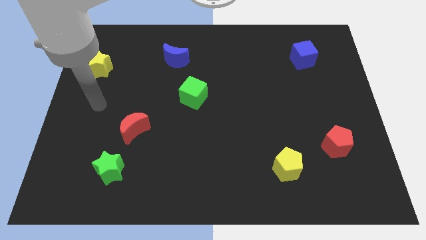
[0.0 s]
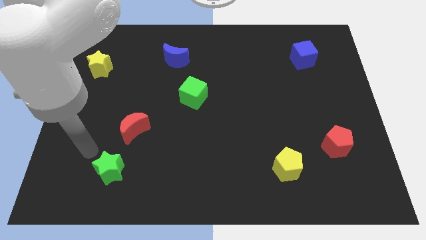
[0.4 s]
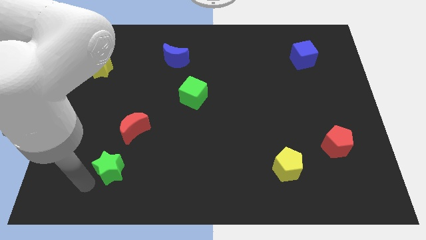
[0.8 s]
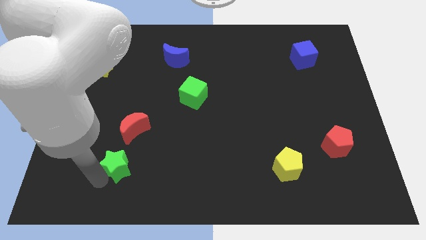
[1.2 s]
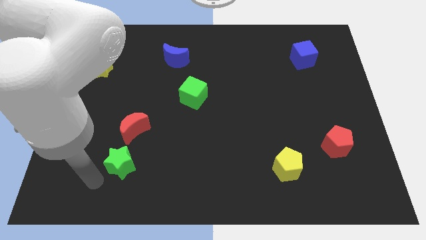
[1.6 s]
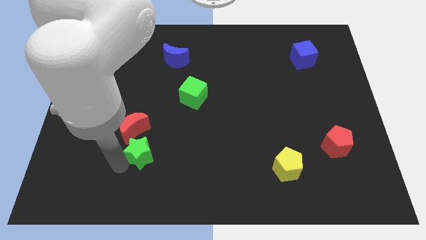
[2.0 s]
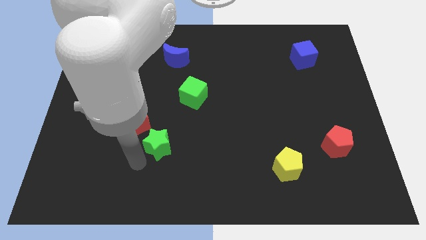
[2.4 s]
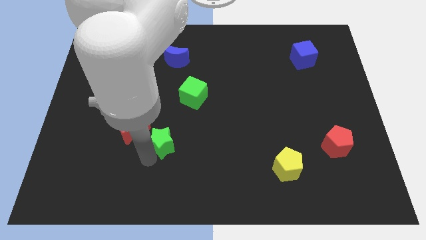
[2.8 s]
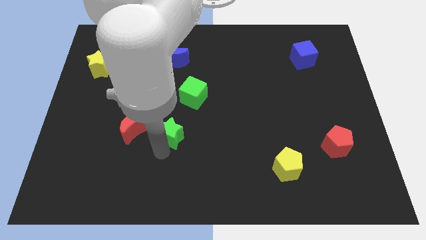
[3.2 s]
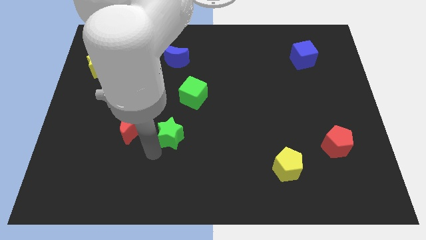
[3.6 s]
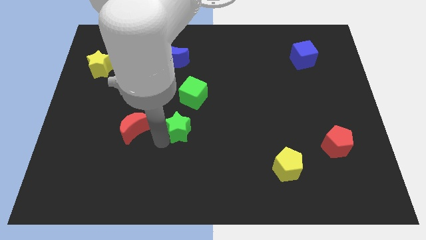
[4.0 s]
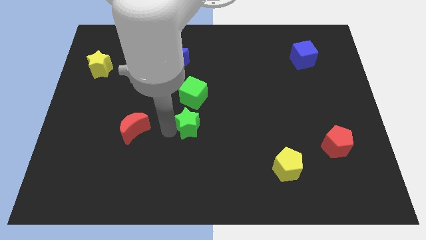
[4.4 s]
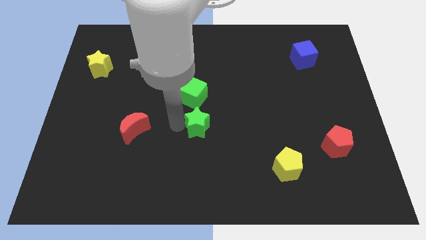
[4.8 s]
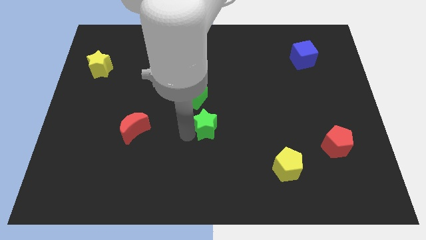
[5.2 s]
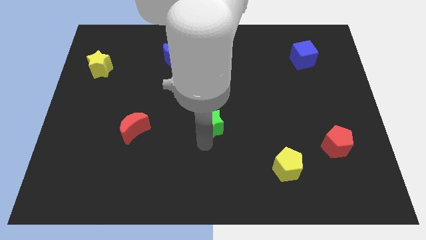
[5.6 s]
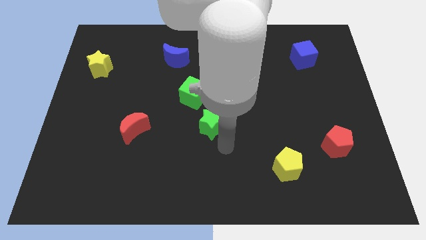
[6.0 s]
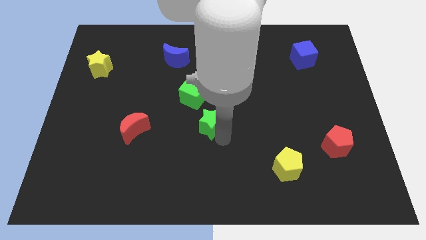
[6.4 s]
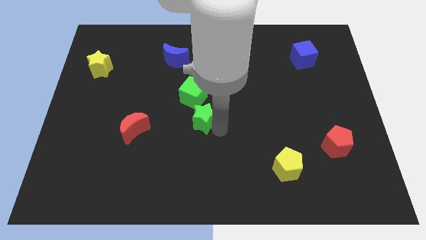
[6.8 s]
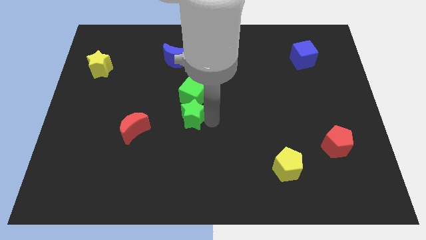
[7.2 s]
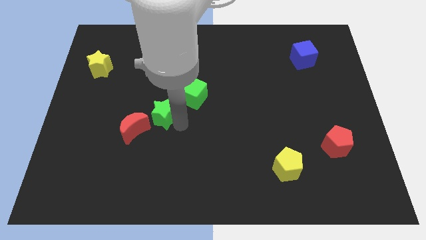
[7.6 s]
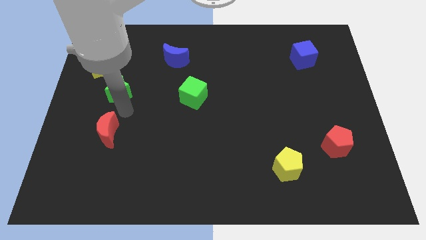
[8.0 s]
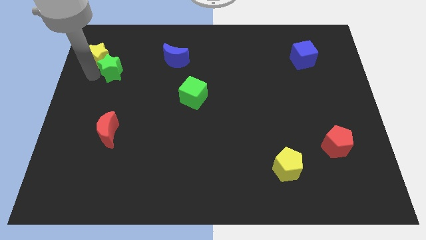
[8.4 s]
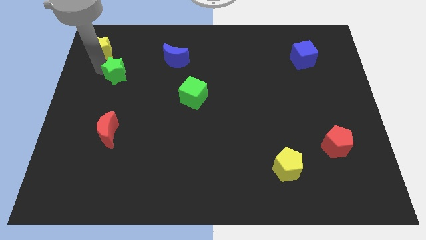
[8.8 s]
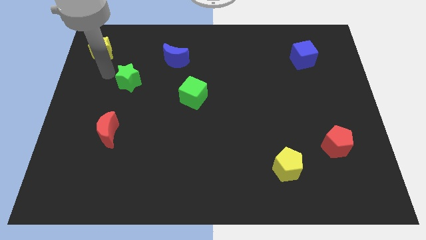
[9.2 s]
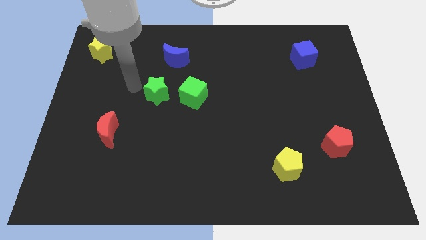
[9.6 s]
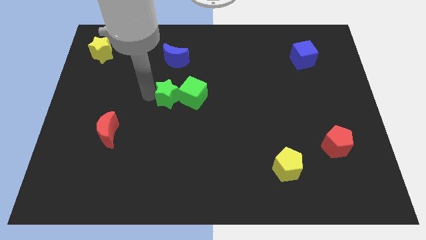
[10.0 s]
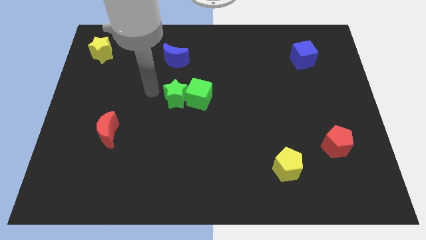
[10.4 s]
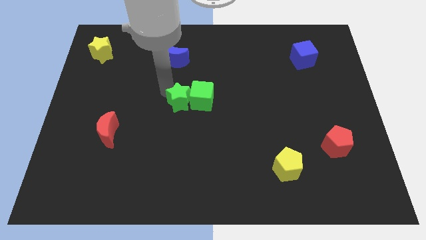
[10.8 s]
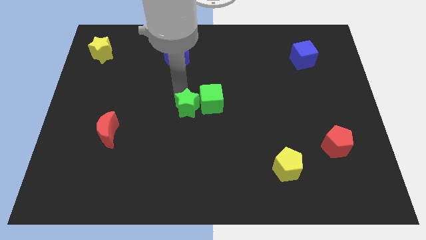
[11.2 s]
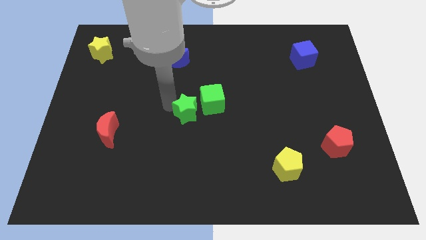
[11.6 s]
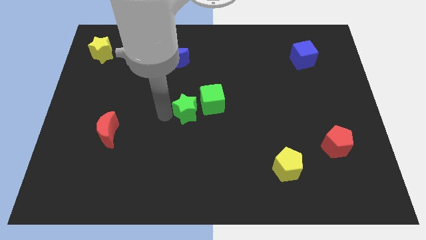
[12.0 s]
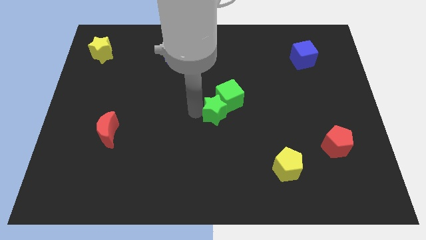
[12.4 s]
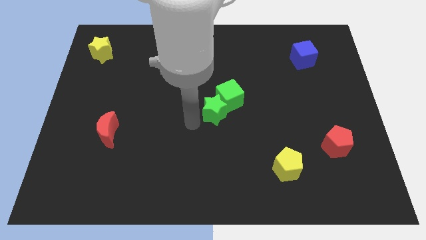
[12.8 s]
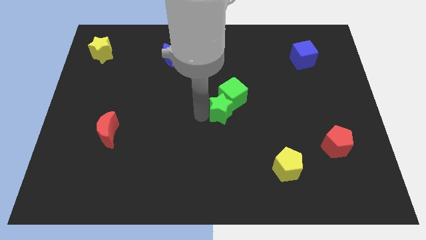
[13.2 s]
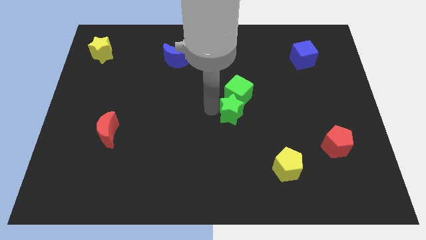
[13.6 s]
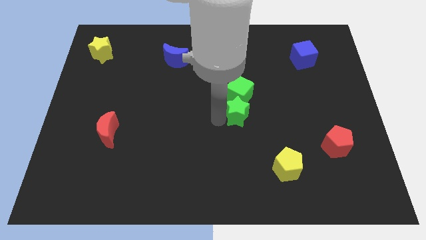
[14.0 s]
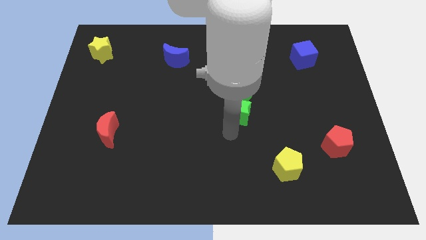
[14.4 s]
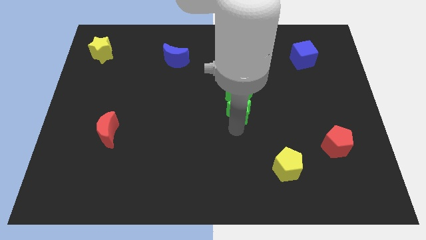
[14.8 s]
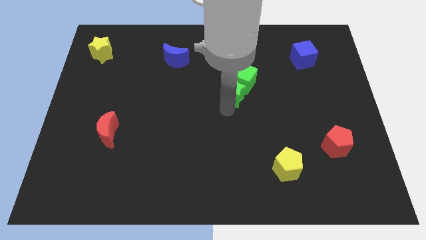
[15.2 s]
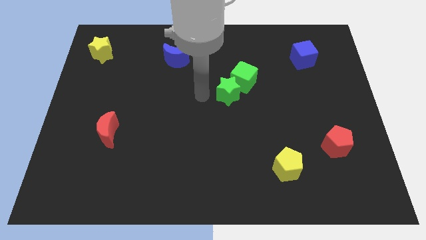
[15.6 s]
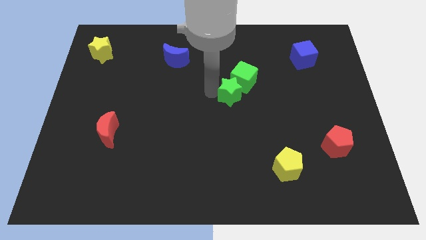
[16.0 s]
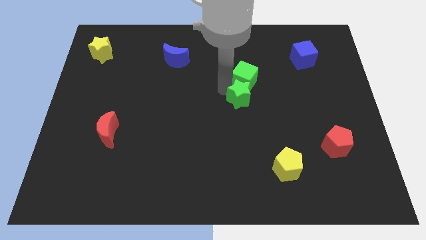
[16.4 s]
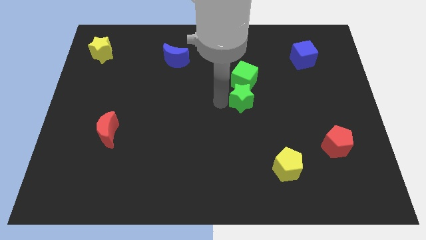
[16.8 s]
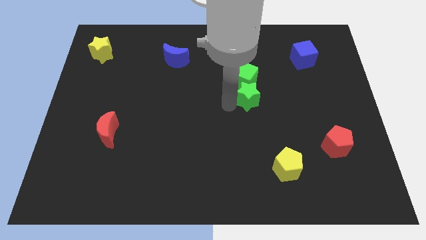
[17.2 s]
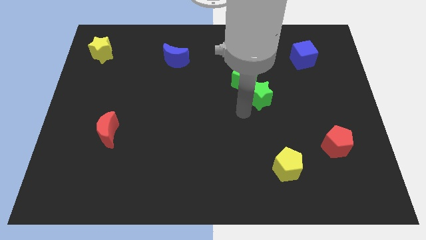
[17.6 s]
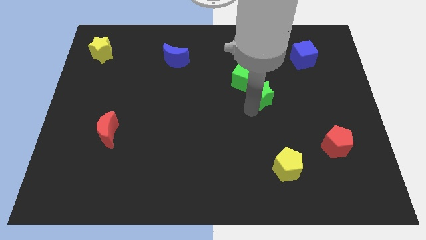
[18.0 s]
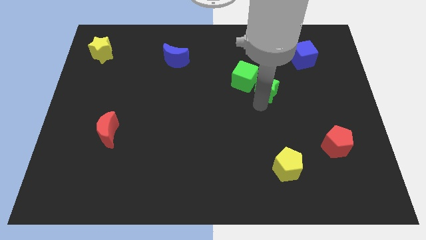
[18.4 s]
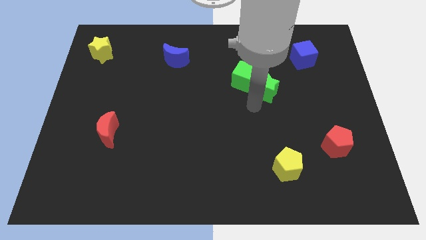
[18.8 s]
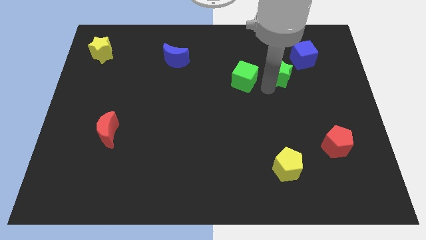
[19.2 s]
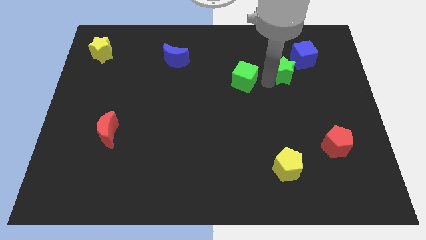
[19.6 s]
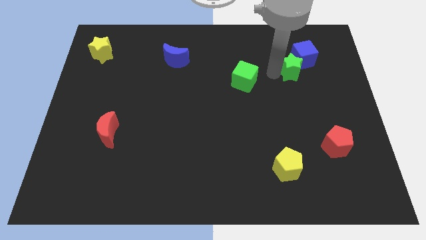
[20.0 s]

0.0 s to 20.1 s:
slide the green star to the blue cube

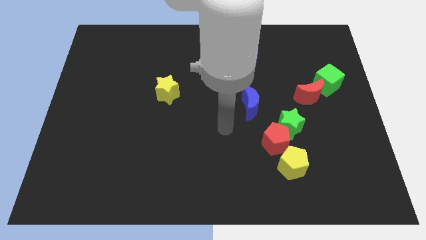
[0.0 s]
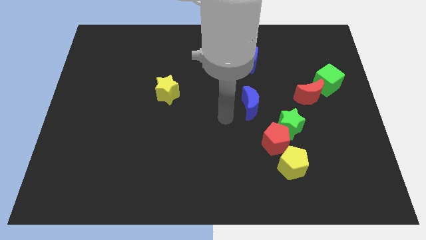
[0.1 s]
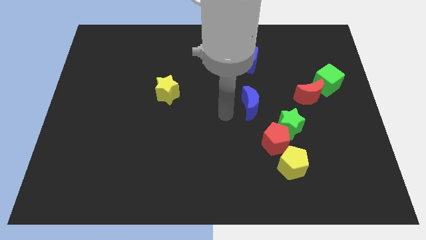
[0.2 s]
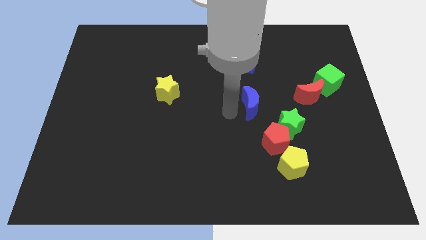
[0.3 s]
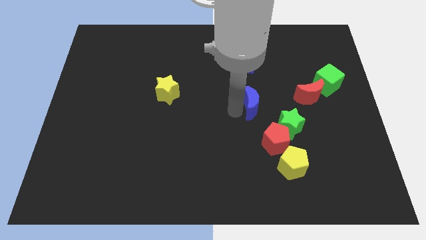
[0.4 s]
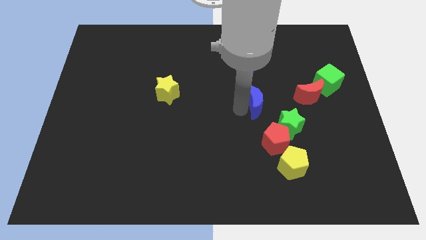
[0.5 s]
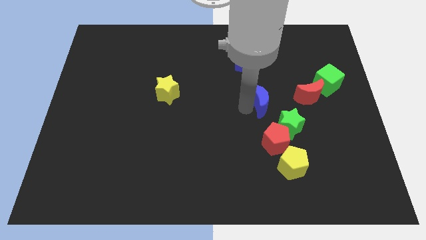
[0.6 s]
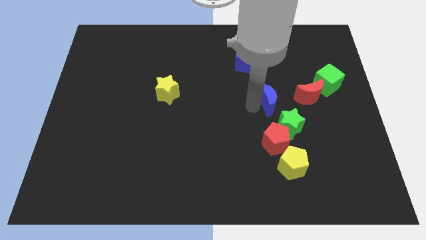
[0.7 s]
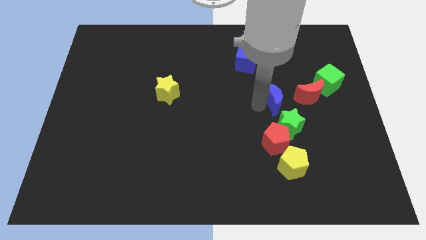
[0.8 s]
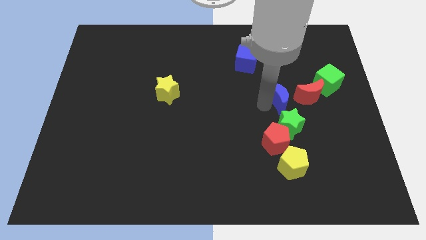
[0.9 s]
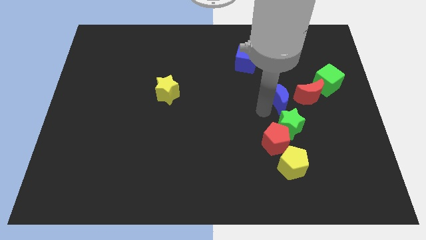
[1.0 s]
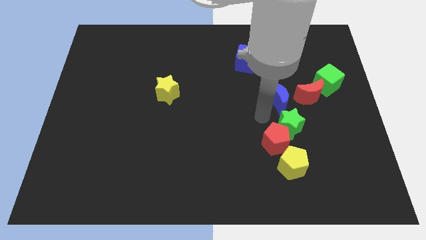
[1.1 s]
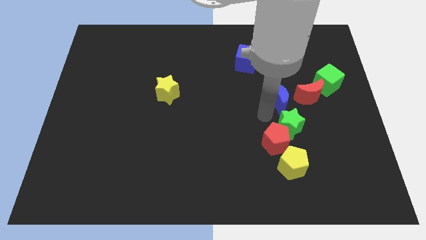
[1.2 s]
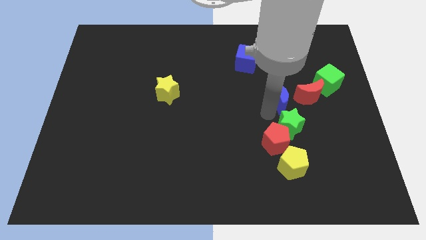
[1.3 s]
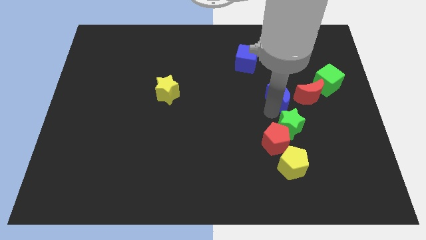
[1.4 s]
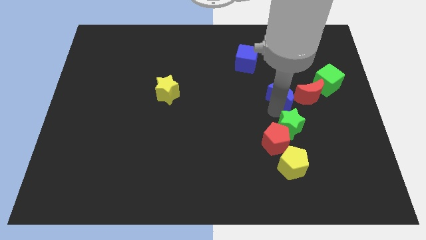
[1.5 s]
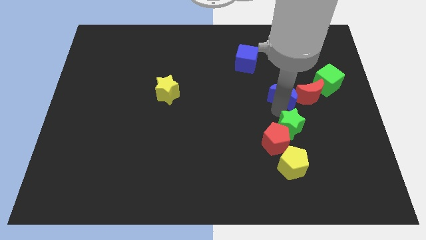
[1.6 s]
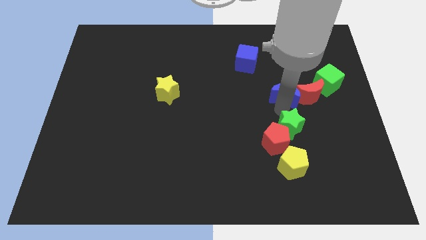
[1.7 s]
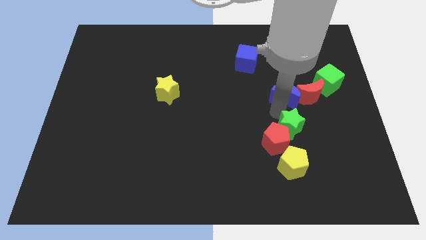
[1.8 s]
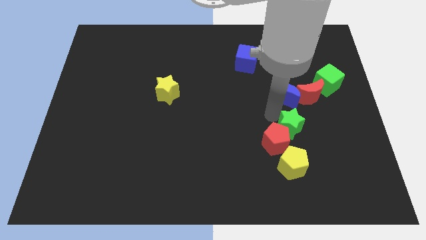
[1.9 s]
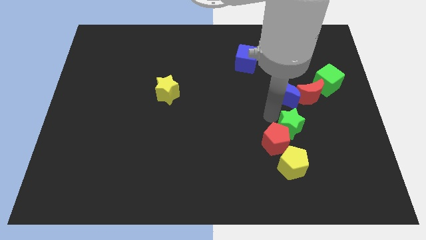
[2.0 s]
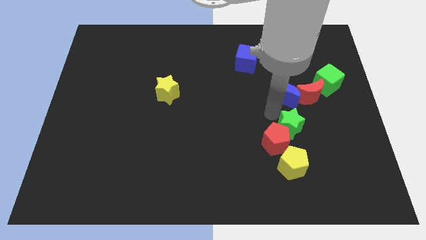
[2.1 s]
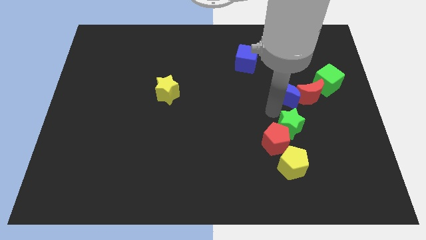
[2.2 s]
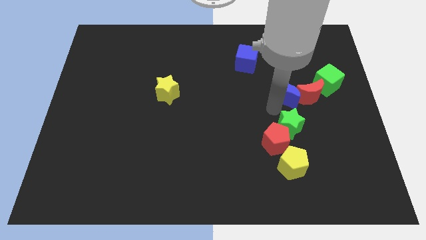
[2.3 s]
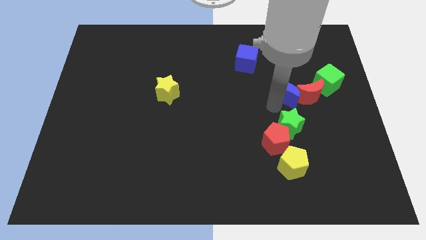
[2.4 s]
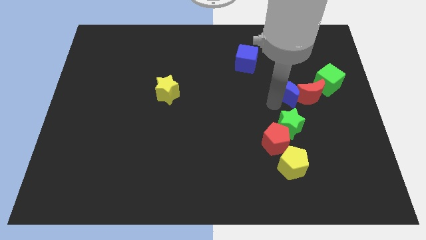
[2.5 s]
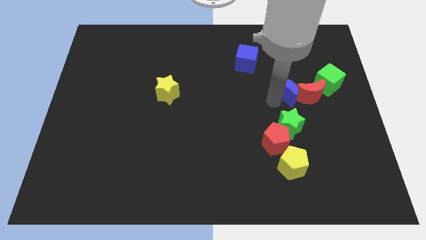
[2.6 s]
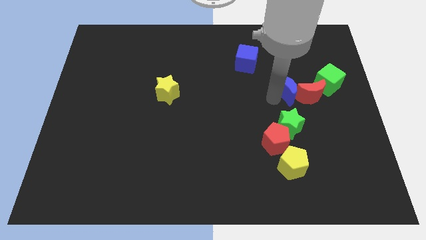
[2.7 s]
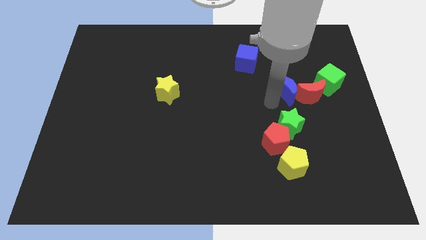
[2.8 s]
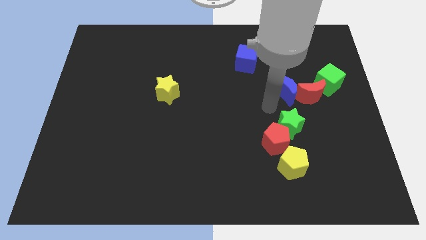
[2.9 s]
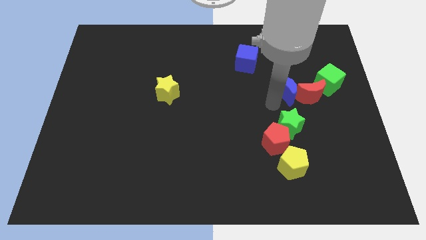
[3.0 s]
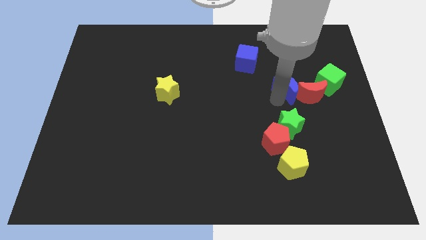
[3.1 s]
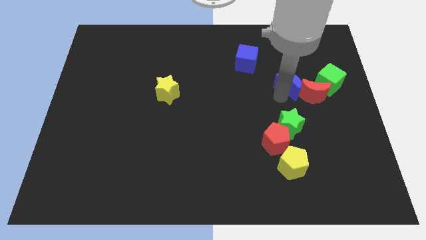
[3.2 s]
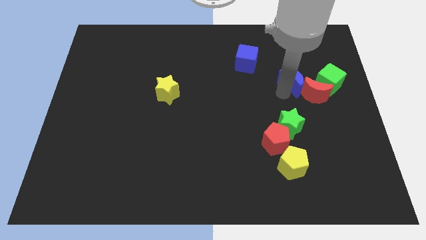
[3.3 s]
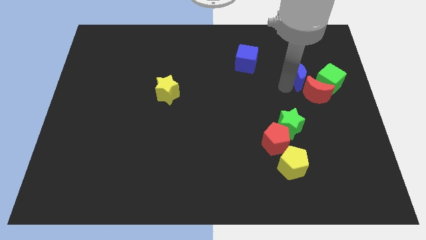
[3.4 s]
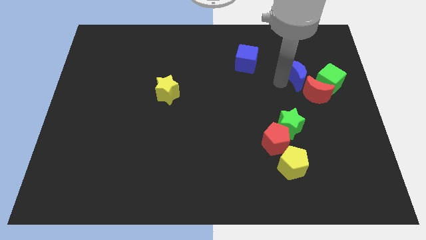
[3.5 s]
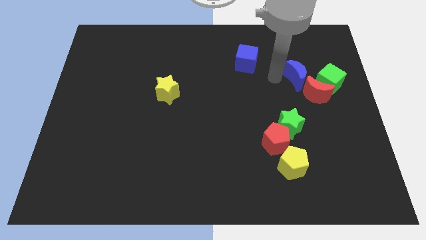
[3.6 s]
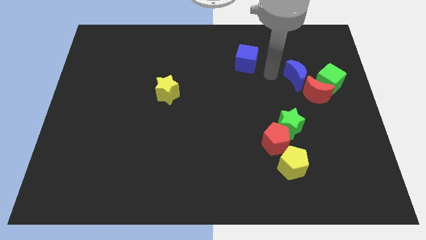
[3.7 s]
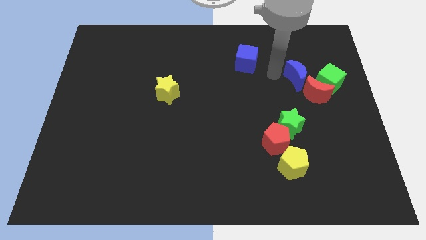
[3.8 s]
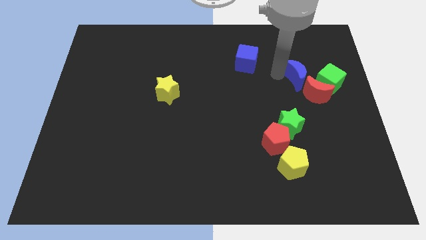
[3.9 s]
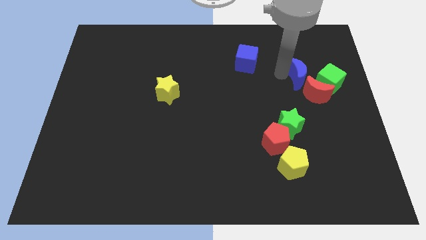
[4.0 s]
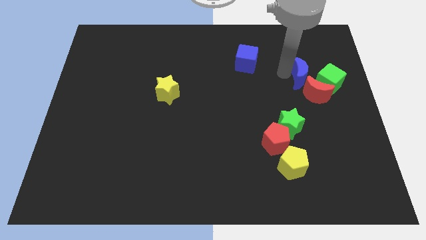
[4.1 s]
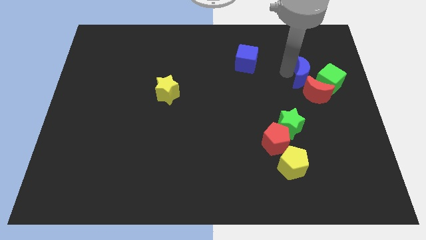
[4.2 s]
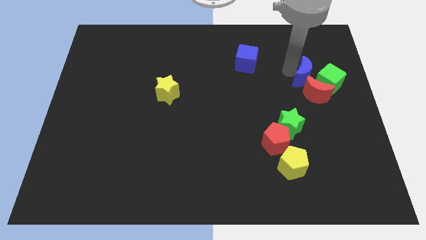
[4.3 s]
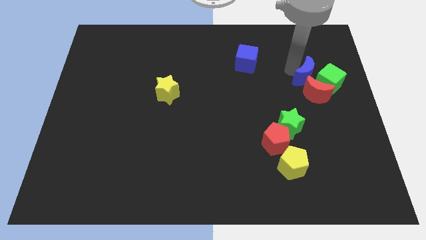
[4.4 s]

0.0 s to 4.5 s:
slide the blue moon close to the green cube
